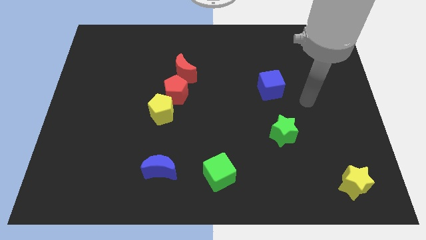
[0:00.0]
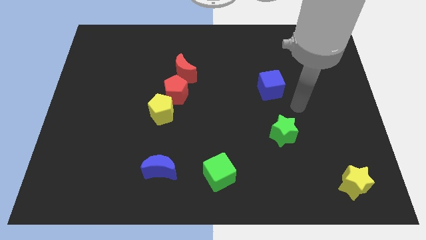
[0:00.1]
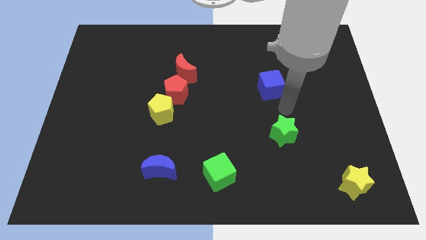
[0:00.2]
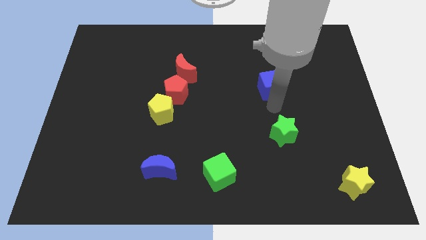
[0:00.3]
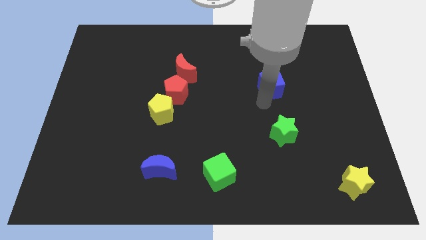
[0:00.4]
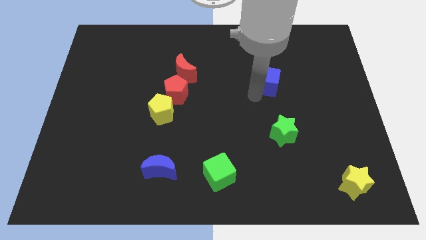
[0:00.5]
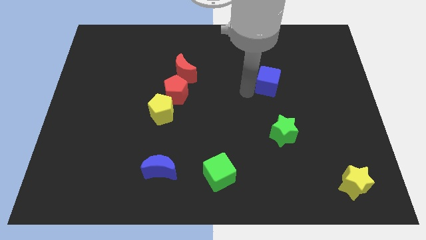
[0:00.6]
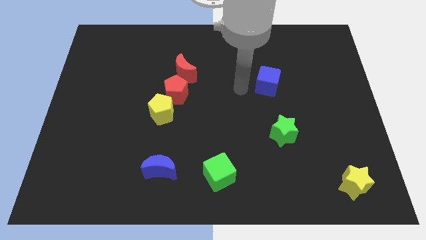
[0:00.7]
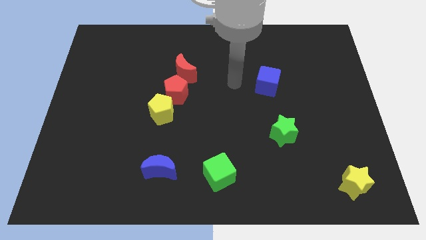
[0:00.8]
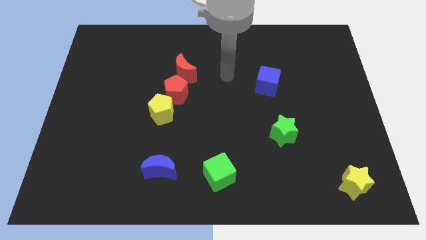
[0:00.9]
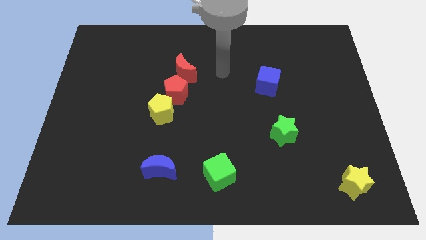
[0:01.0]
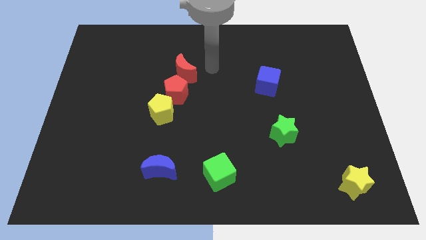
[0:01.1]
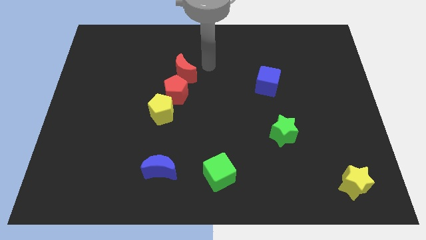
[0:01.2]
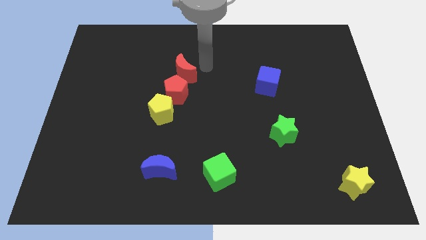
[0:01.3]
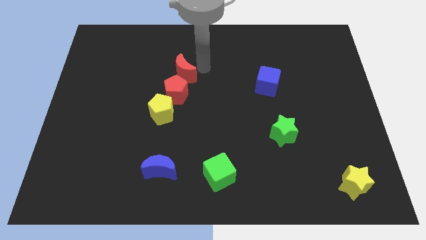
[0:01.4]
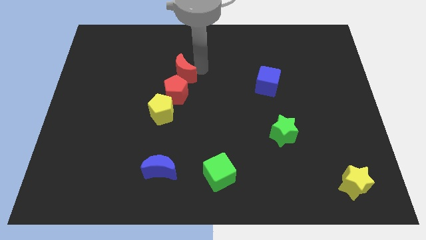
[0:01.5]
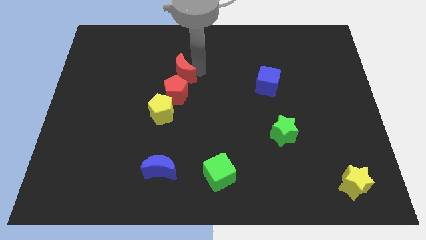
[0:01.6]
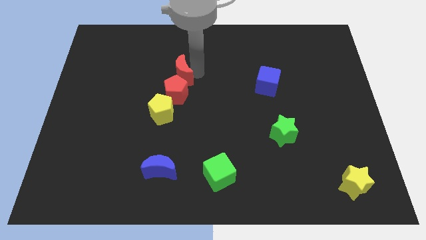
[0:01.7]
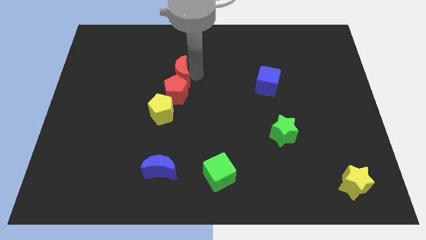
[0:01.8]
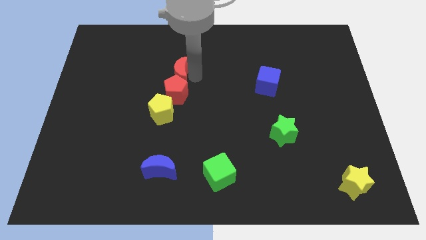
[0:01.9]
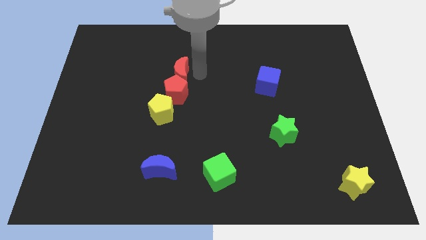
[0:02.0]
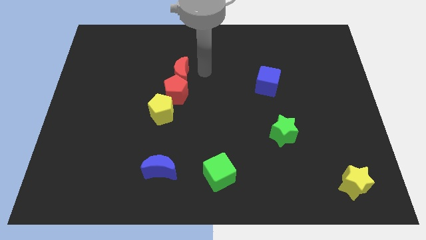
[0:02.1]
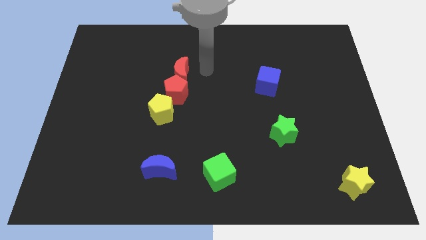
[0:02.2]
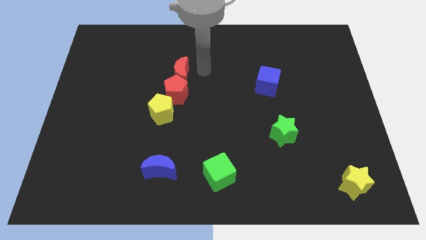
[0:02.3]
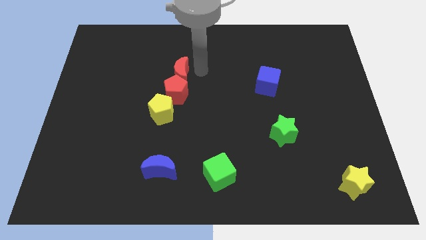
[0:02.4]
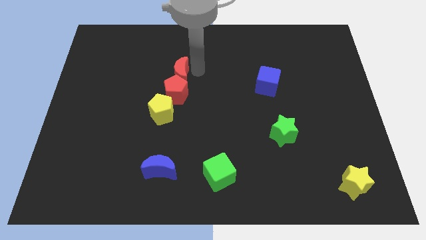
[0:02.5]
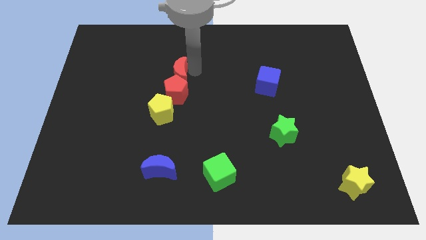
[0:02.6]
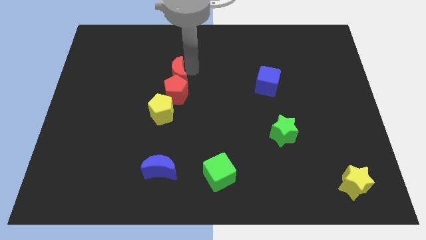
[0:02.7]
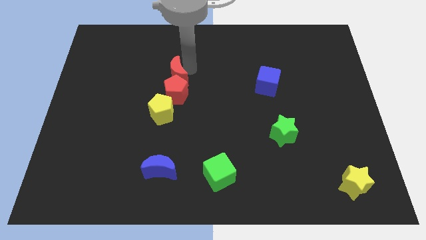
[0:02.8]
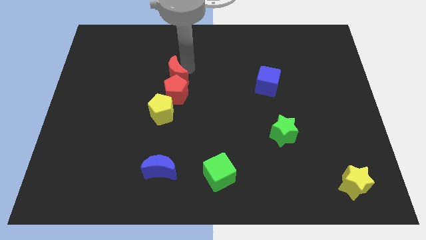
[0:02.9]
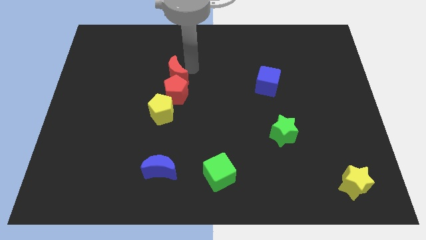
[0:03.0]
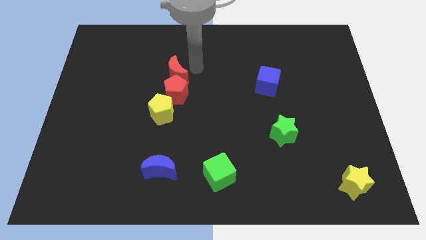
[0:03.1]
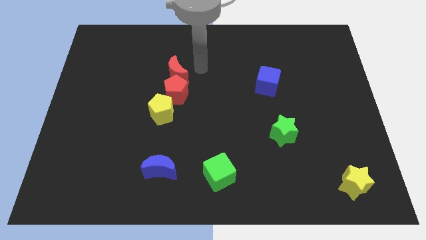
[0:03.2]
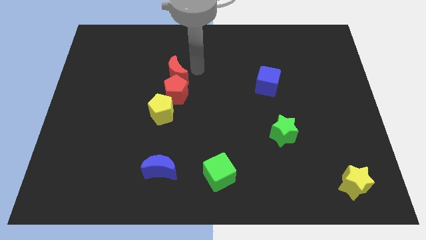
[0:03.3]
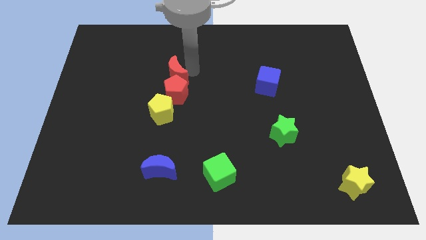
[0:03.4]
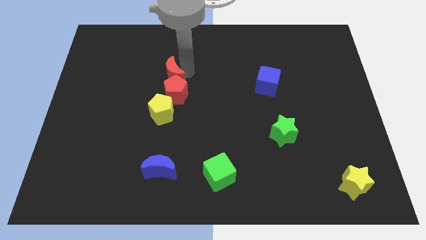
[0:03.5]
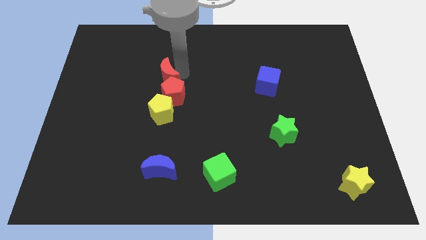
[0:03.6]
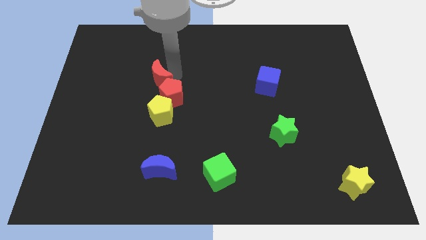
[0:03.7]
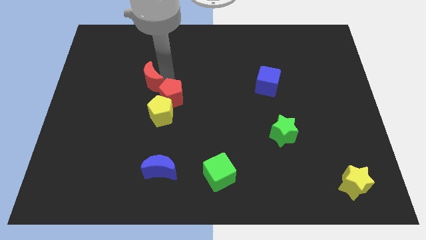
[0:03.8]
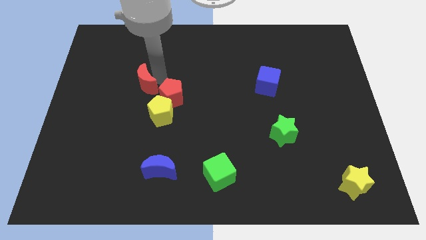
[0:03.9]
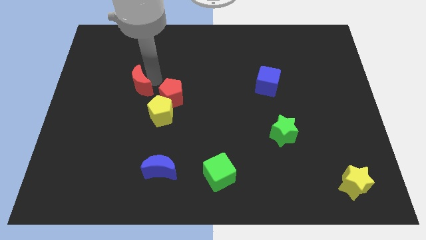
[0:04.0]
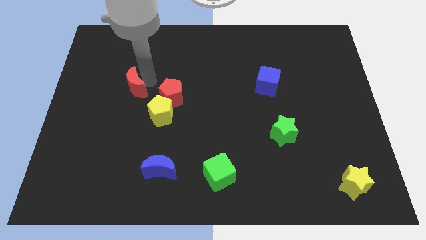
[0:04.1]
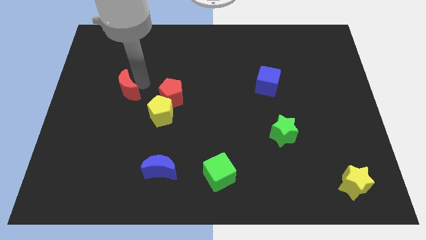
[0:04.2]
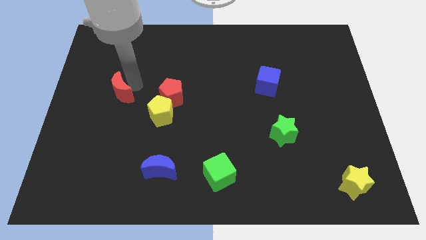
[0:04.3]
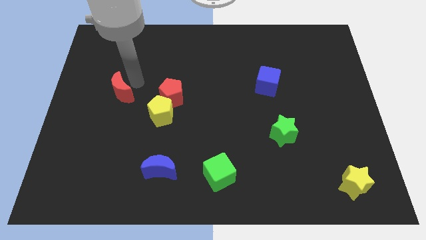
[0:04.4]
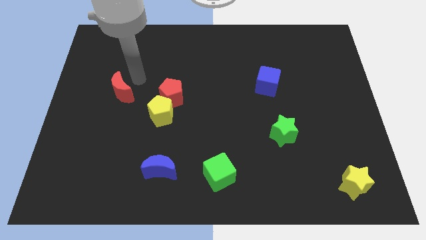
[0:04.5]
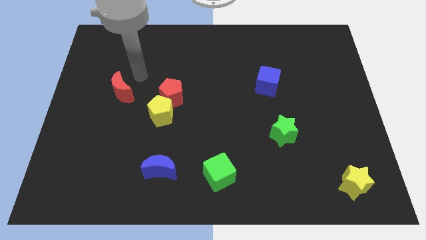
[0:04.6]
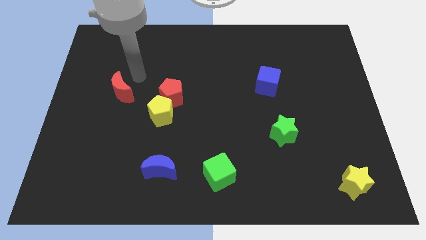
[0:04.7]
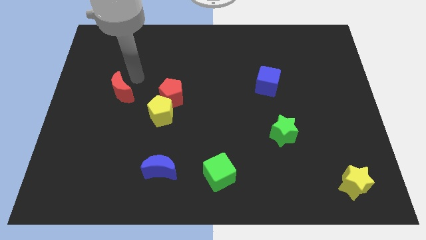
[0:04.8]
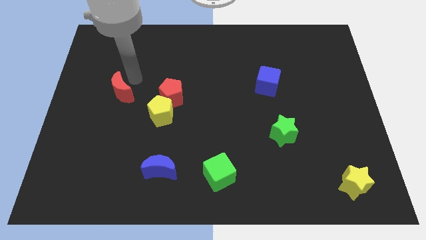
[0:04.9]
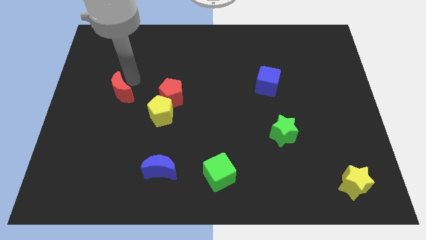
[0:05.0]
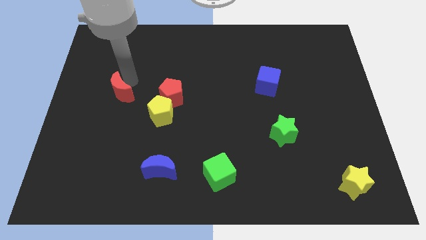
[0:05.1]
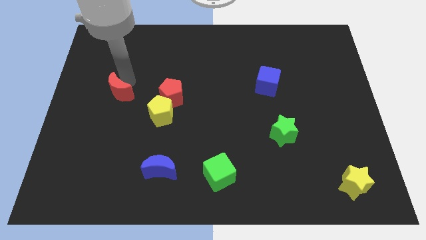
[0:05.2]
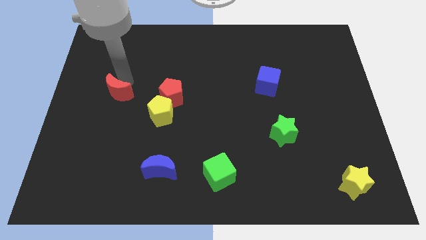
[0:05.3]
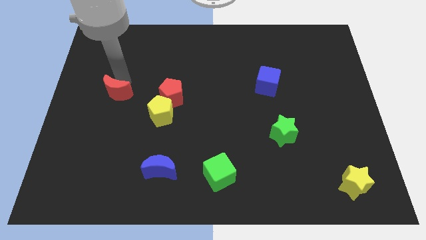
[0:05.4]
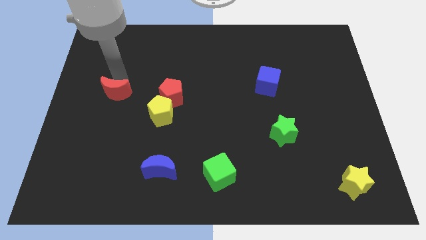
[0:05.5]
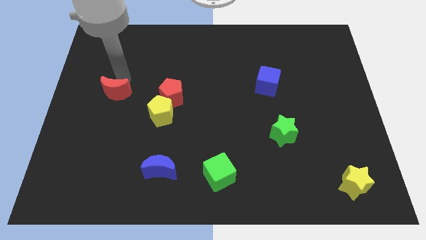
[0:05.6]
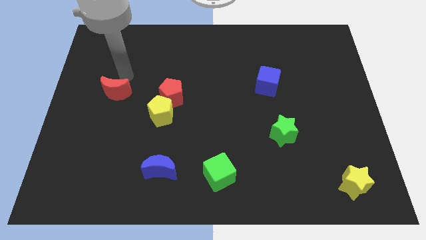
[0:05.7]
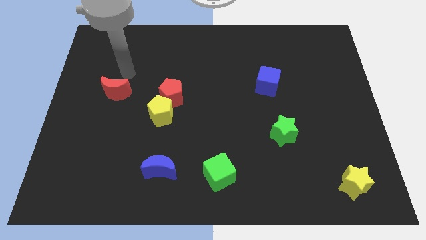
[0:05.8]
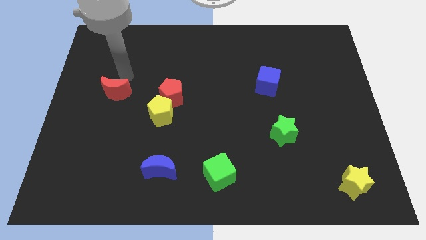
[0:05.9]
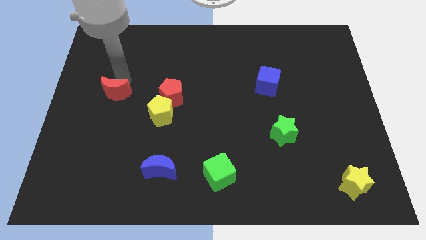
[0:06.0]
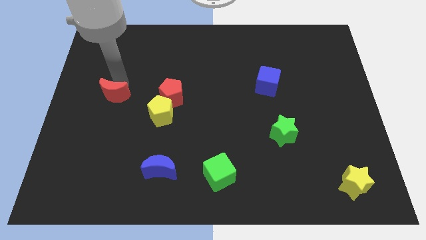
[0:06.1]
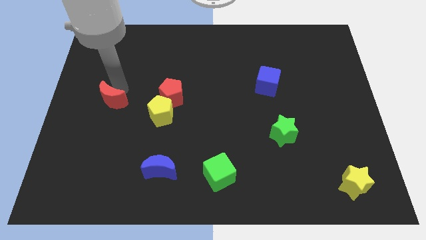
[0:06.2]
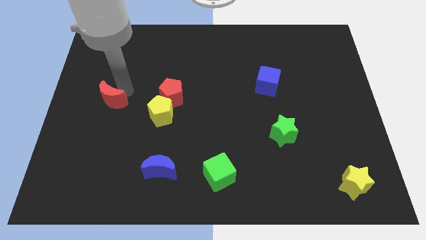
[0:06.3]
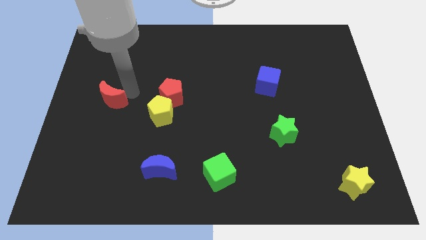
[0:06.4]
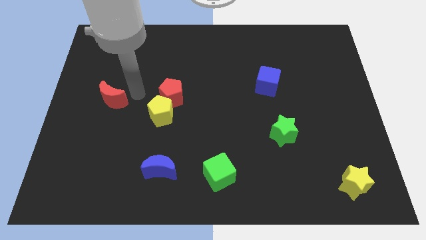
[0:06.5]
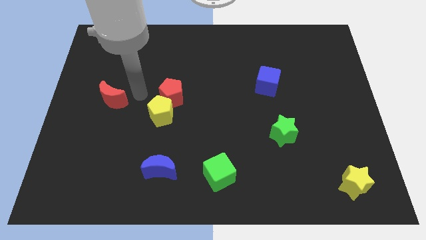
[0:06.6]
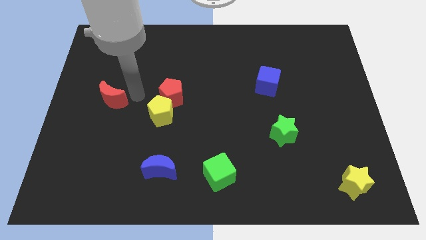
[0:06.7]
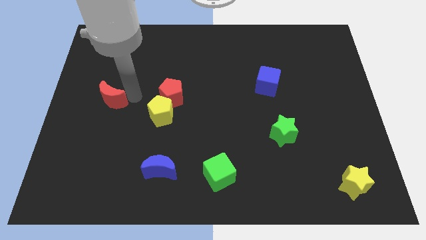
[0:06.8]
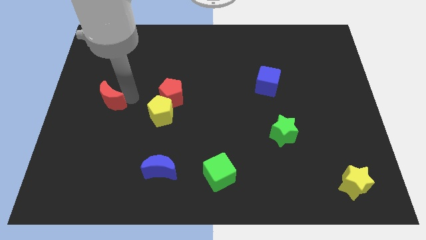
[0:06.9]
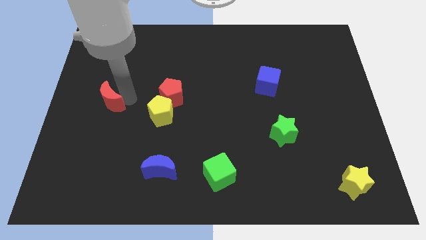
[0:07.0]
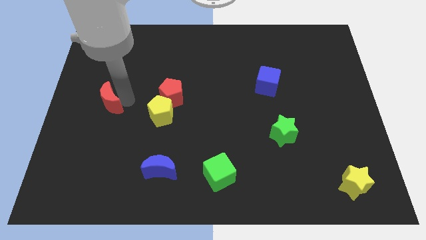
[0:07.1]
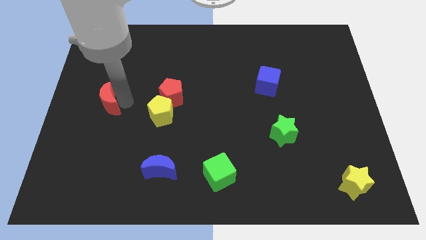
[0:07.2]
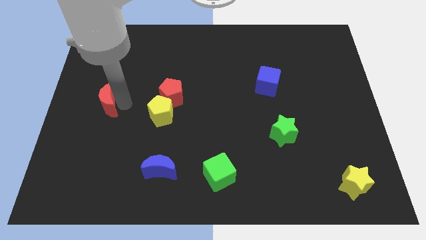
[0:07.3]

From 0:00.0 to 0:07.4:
move the red moon to the center left
